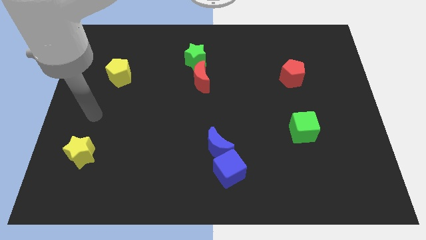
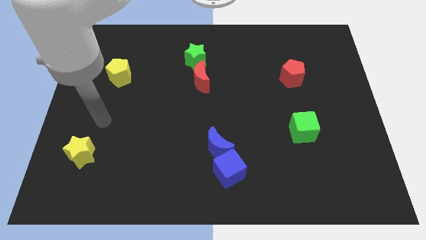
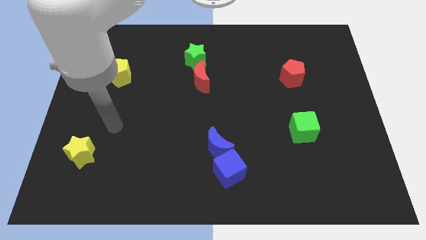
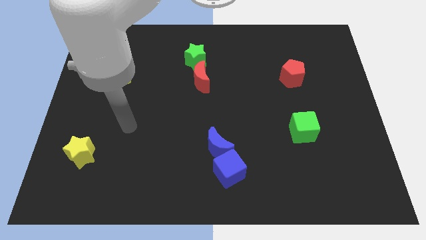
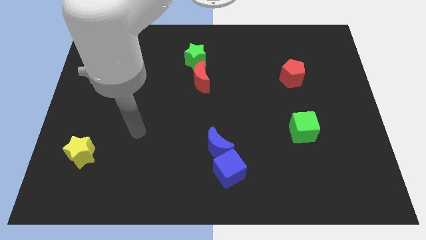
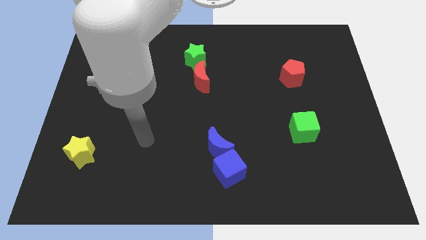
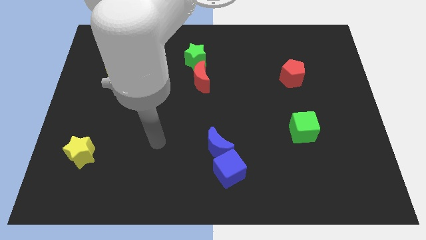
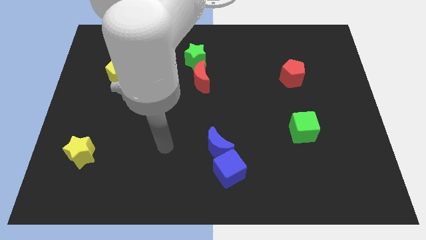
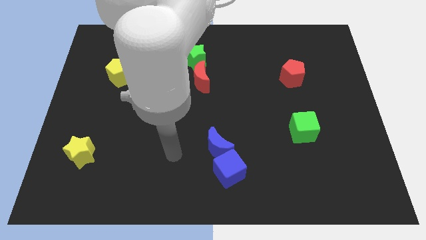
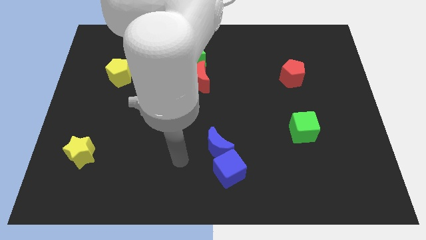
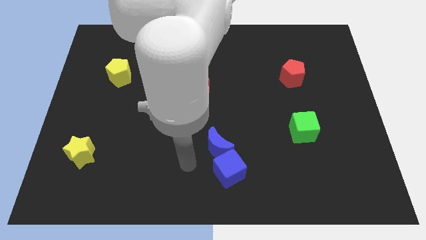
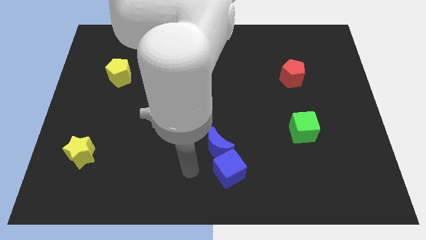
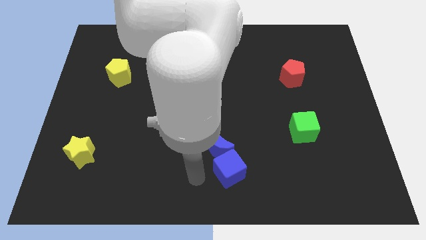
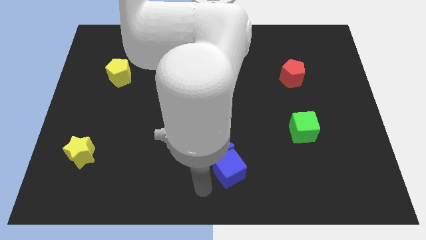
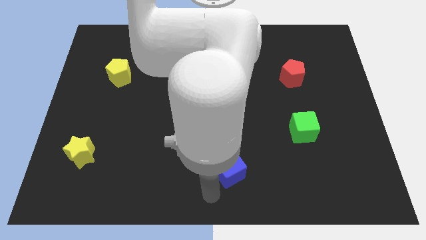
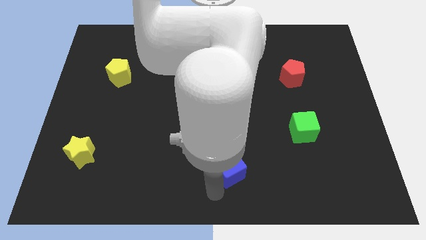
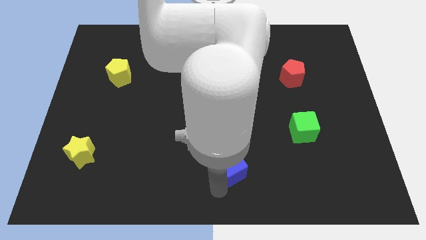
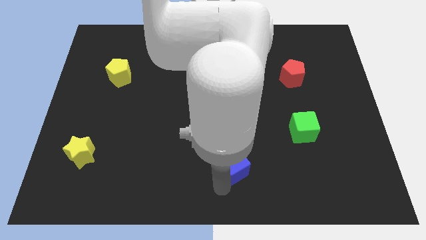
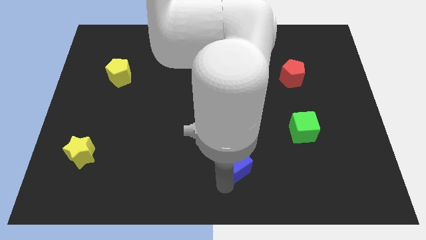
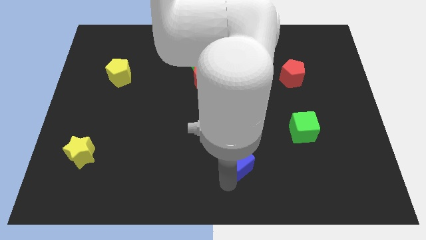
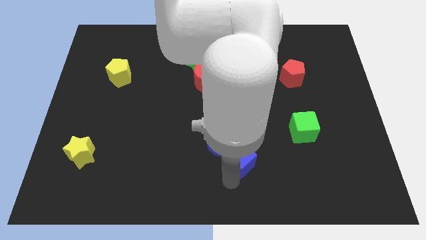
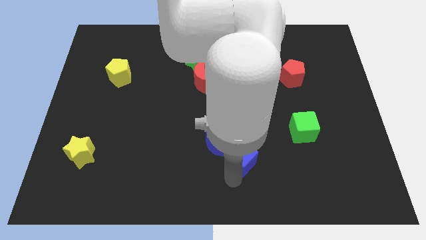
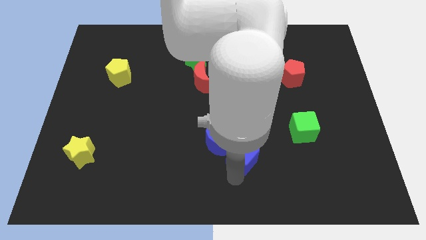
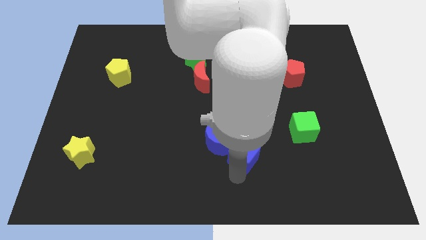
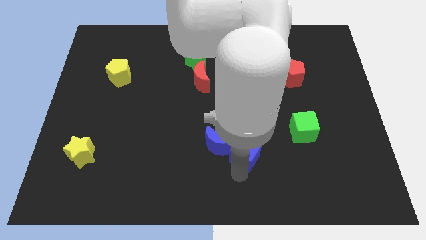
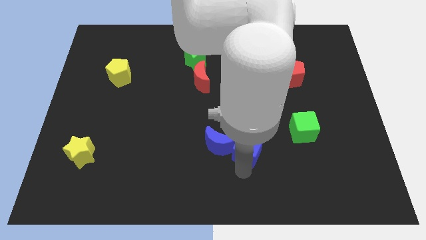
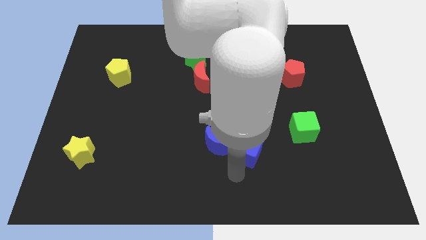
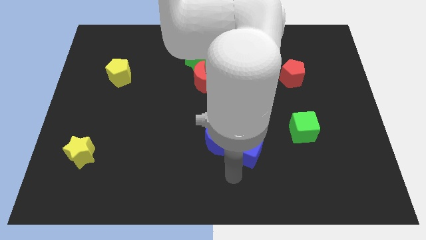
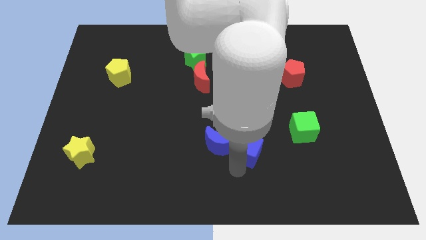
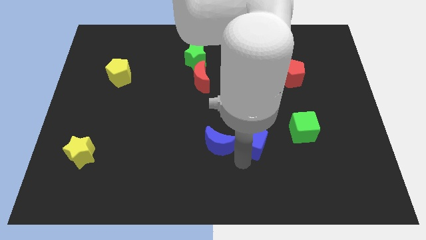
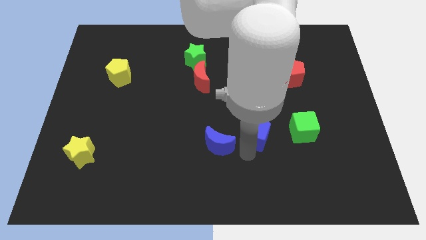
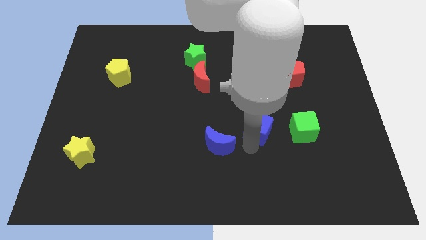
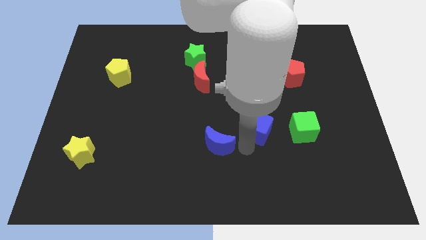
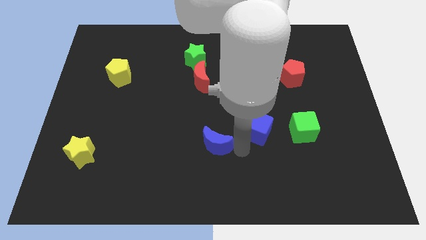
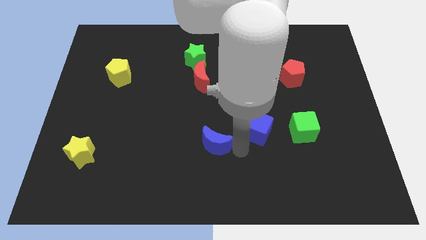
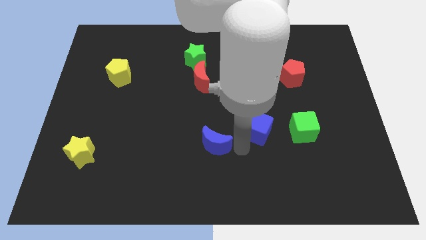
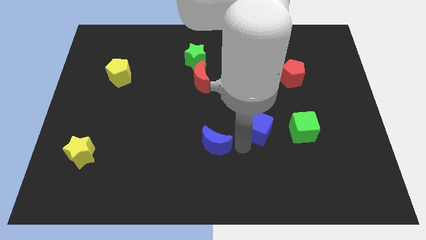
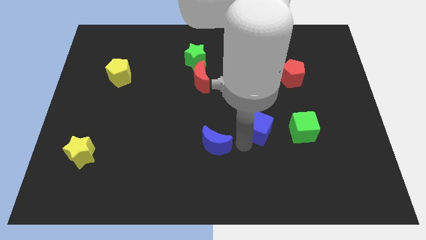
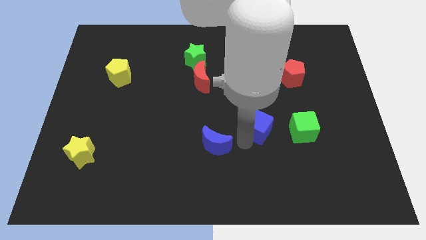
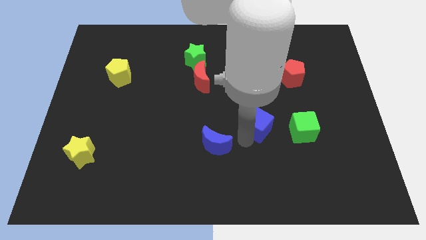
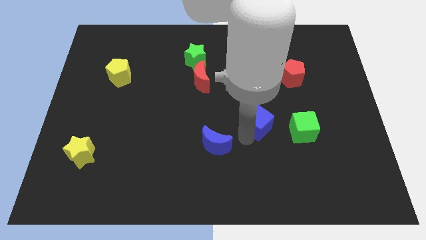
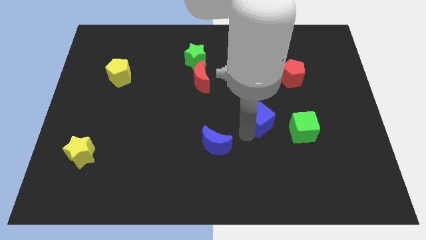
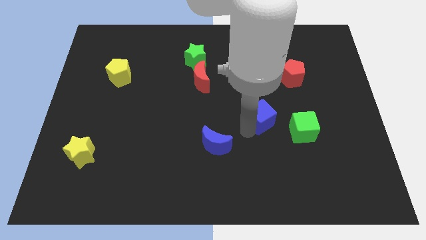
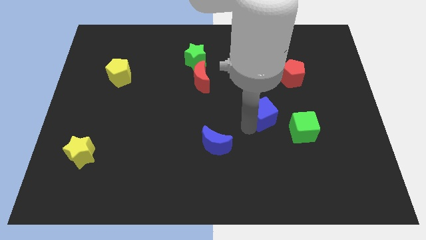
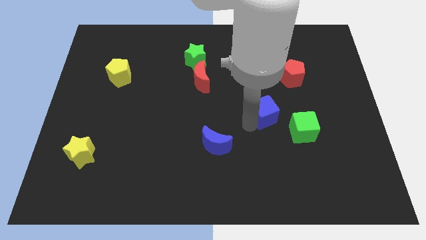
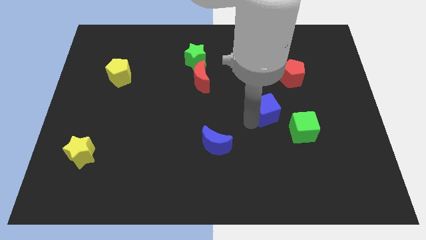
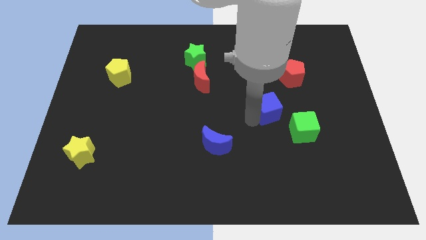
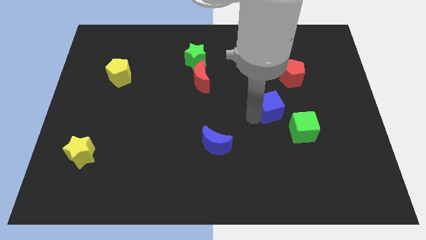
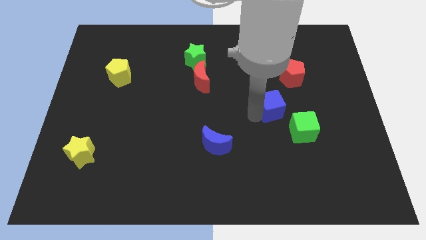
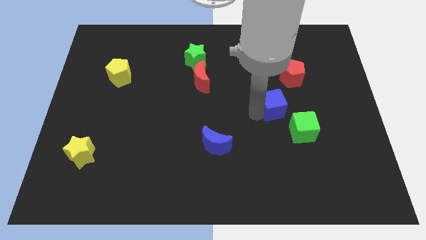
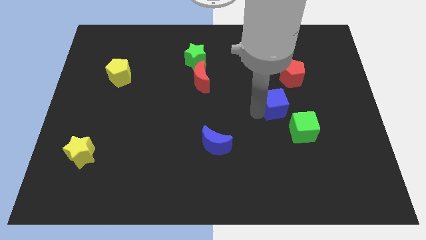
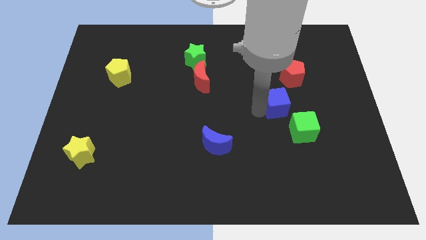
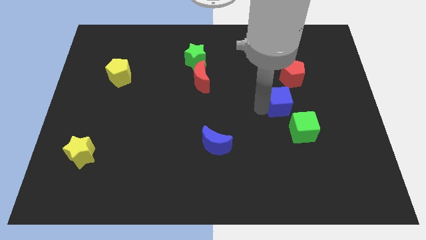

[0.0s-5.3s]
slide the blue cube up and then right

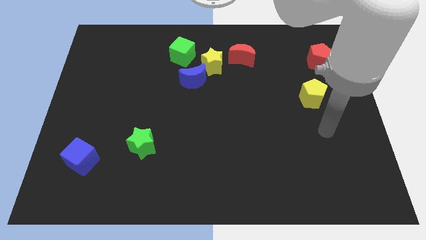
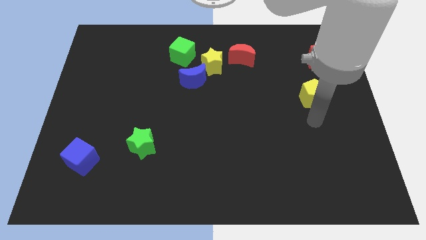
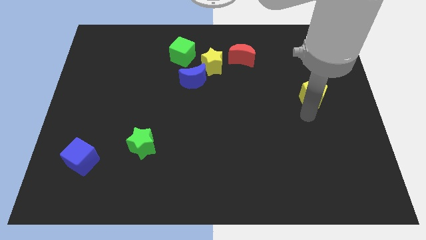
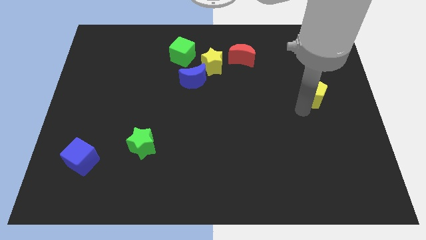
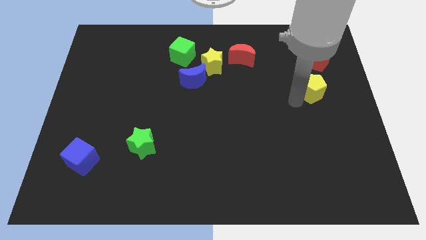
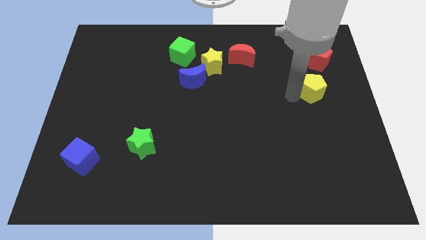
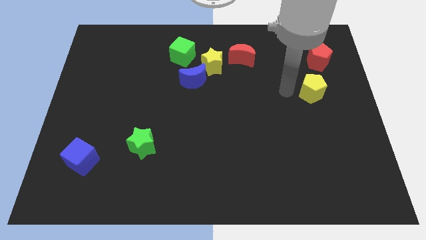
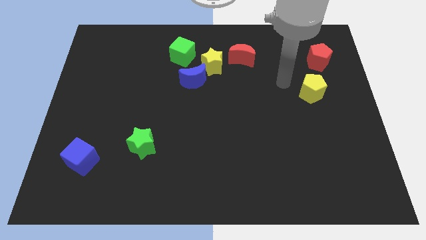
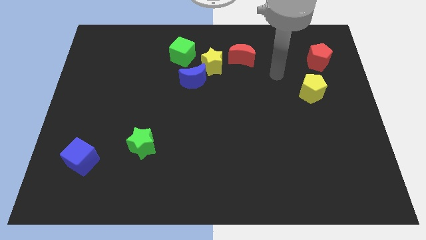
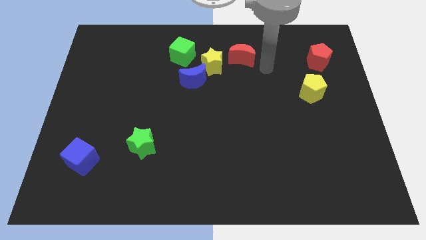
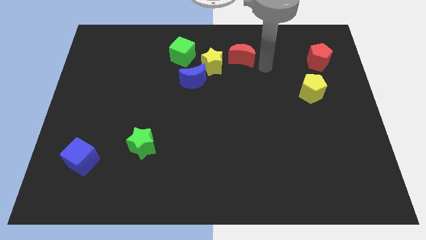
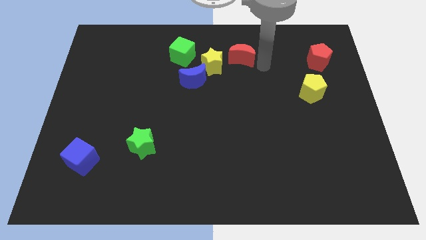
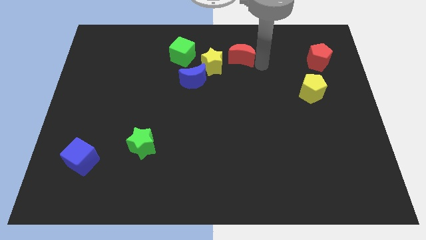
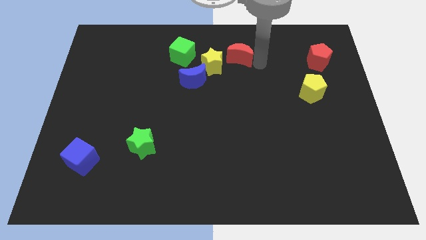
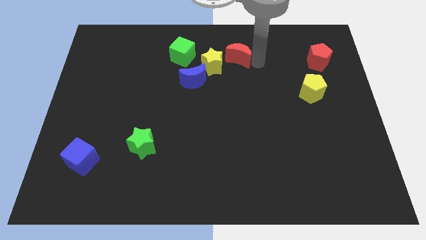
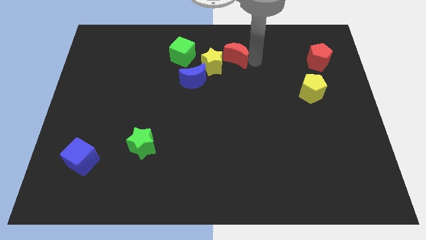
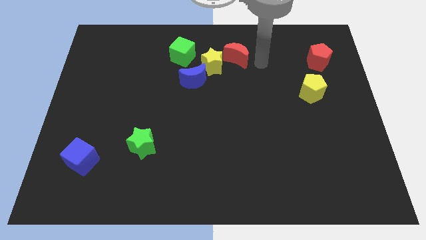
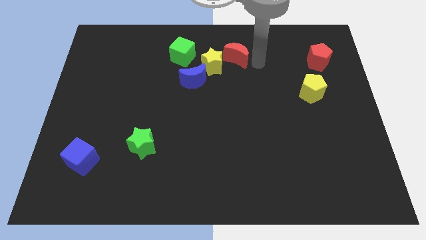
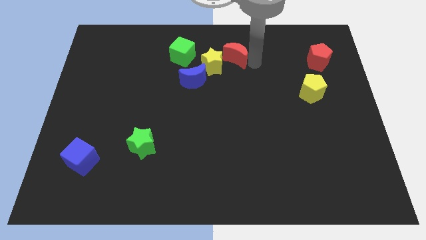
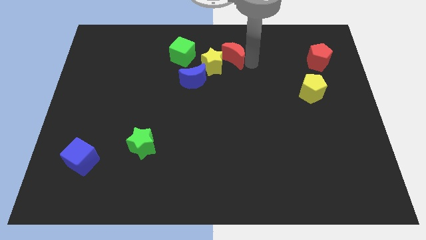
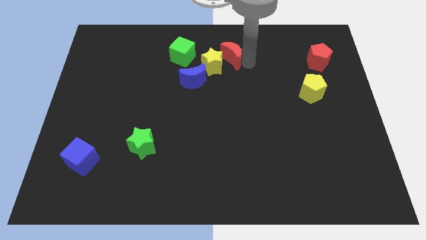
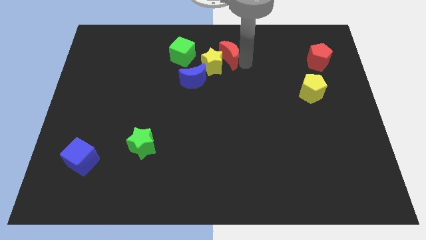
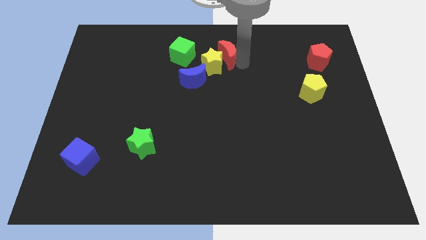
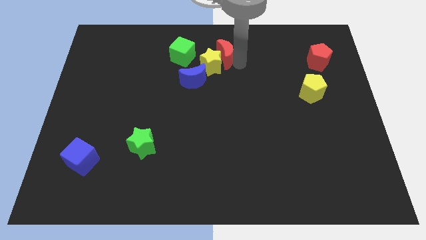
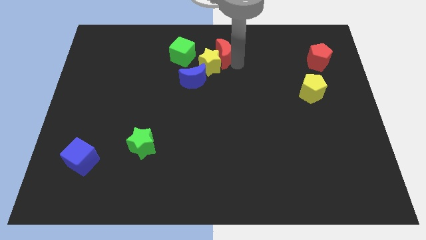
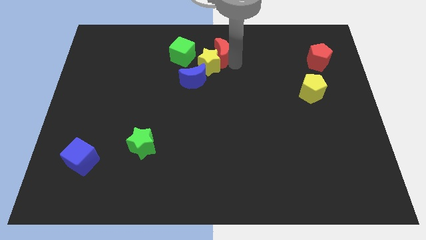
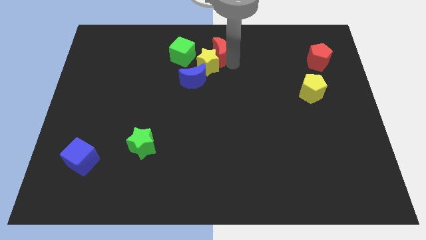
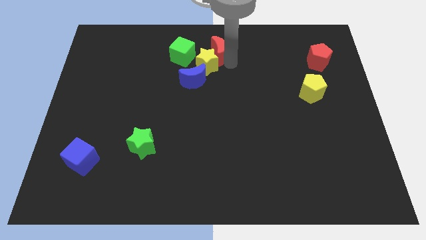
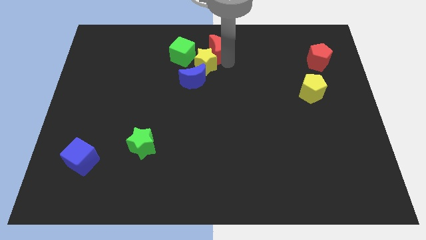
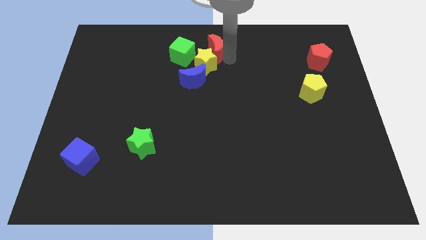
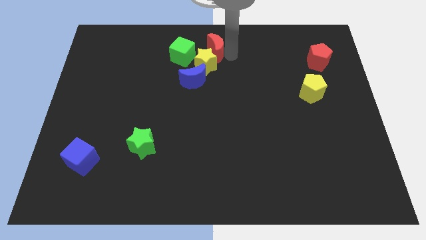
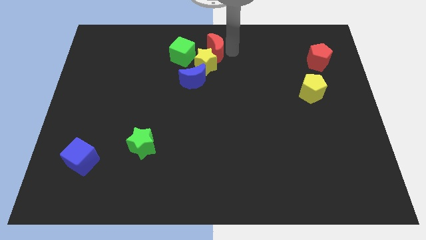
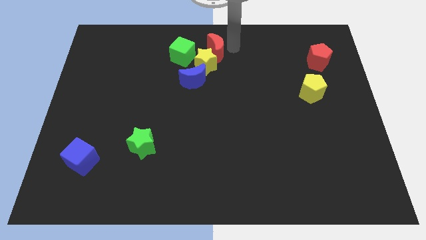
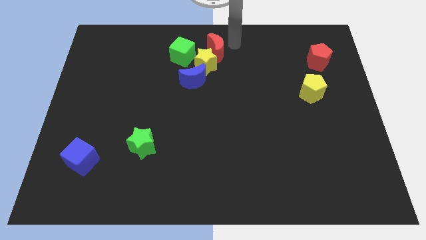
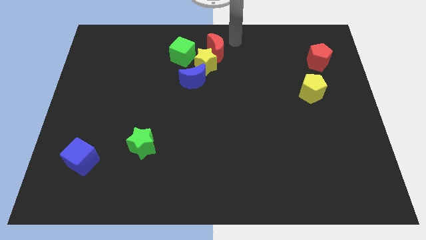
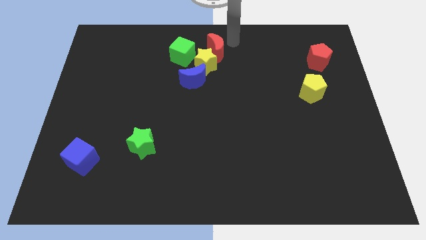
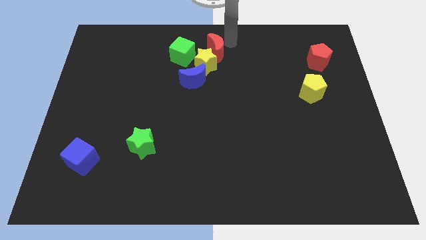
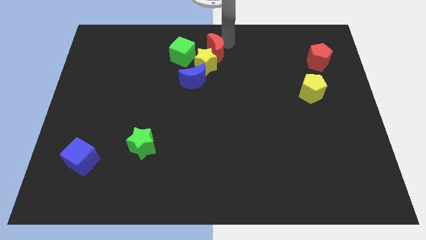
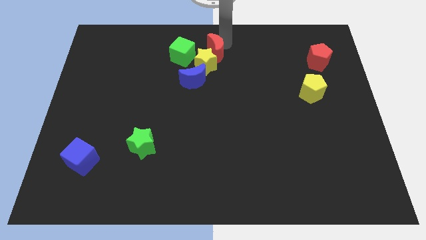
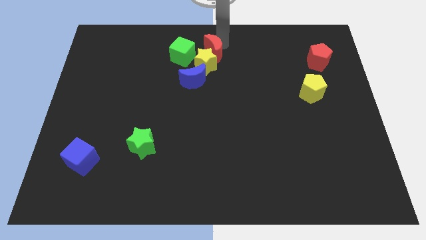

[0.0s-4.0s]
move the red moon to the left a little bit
